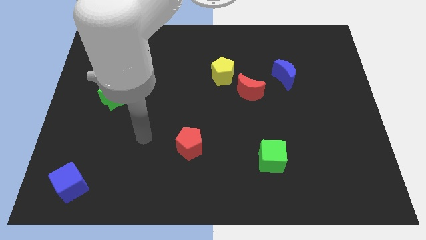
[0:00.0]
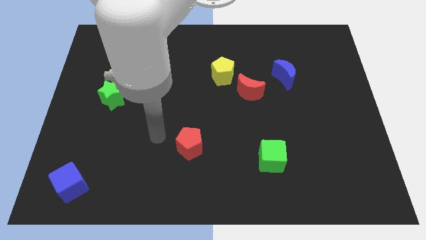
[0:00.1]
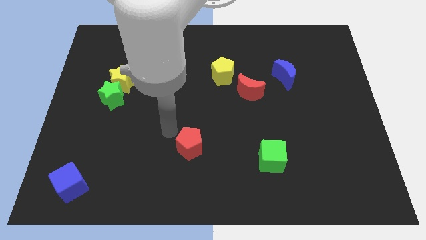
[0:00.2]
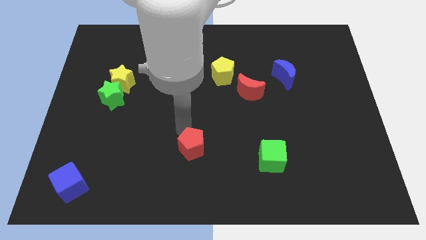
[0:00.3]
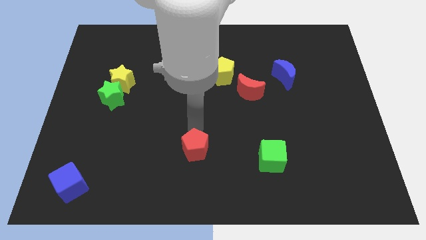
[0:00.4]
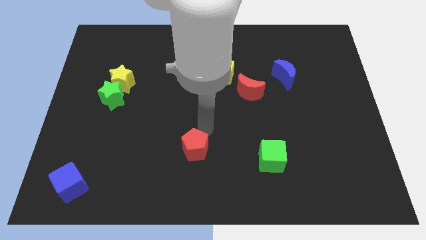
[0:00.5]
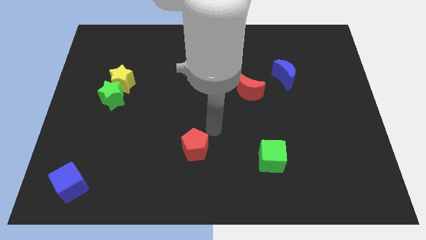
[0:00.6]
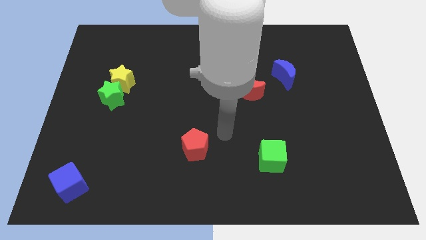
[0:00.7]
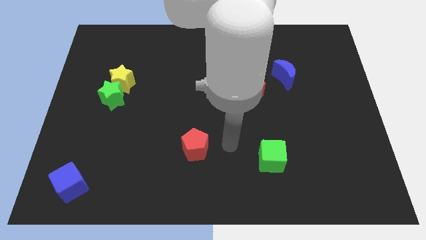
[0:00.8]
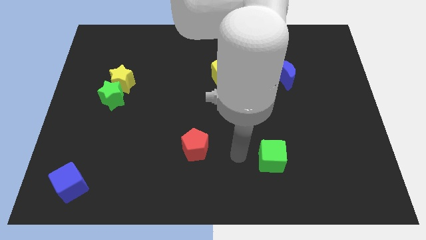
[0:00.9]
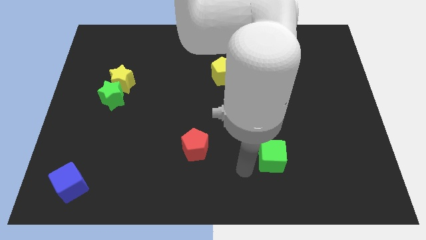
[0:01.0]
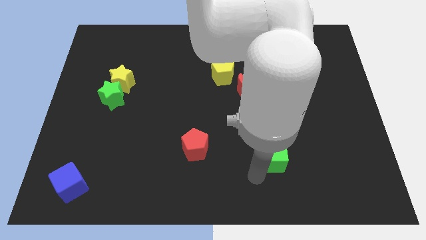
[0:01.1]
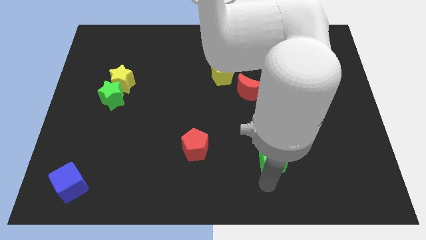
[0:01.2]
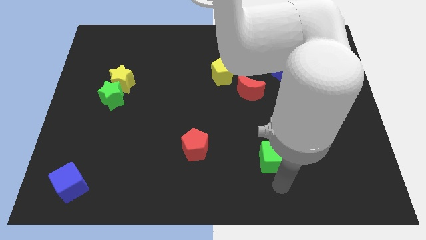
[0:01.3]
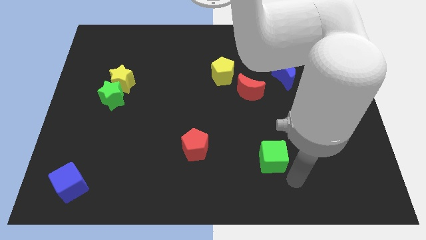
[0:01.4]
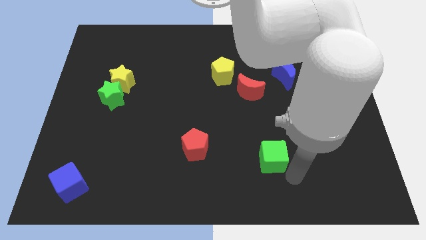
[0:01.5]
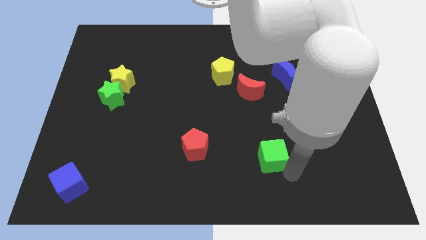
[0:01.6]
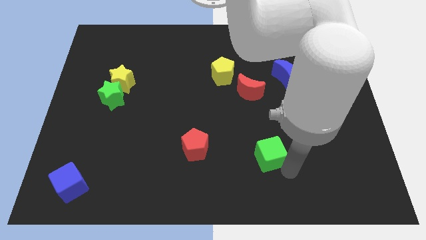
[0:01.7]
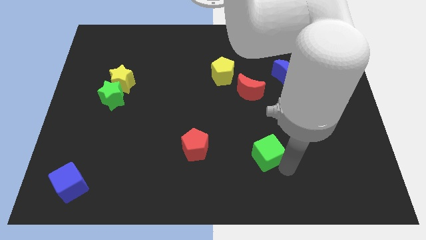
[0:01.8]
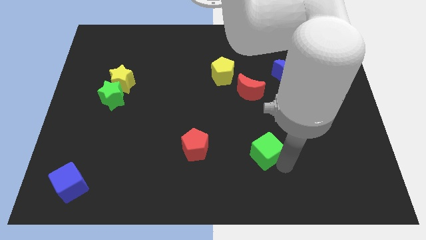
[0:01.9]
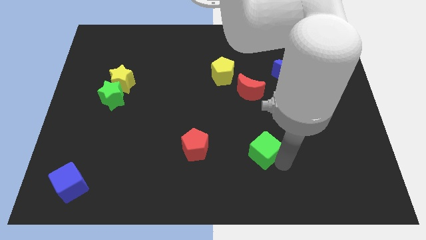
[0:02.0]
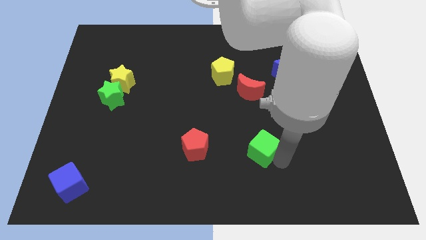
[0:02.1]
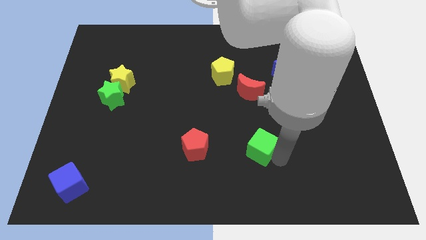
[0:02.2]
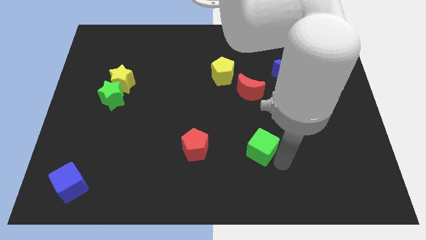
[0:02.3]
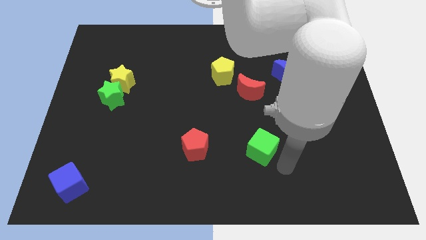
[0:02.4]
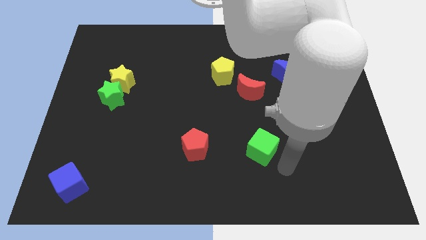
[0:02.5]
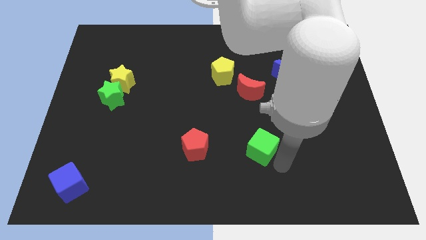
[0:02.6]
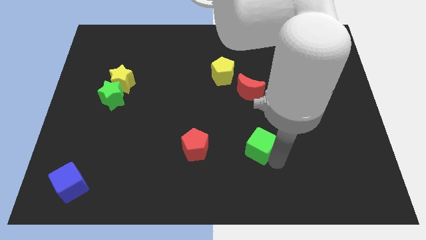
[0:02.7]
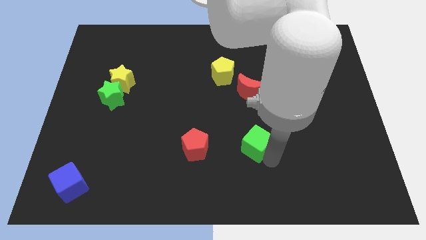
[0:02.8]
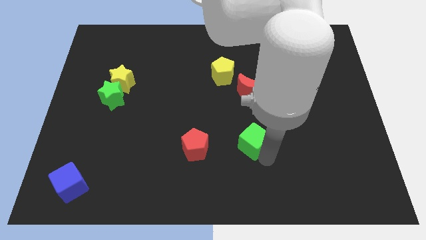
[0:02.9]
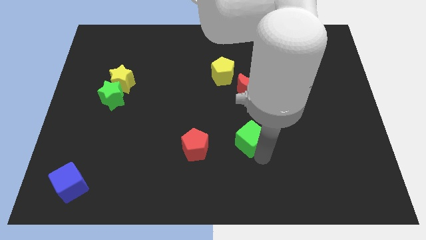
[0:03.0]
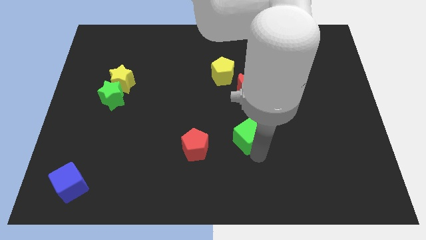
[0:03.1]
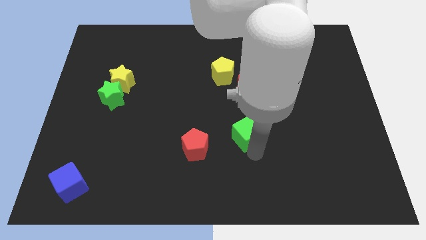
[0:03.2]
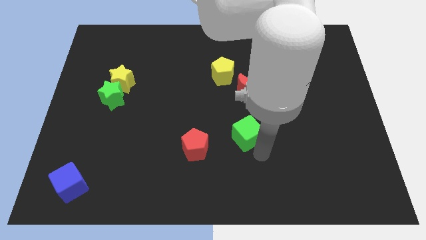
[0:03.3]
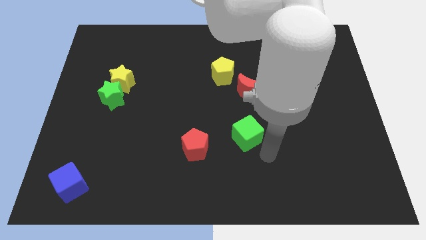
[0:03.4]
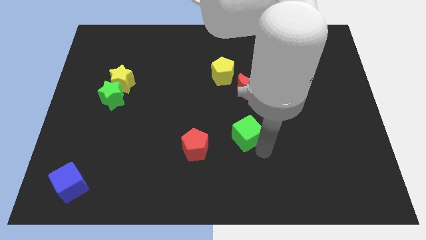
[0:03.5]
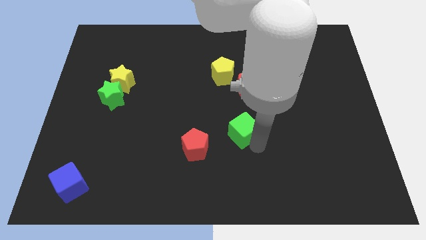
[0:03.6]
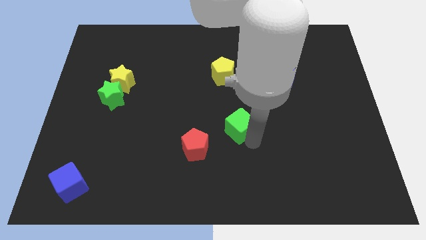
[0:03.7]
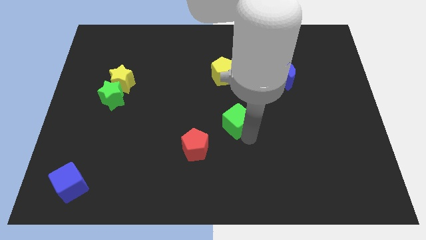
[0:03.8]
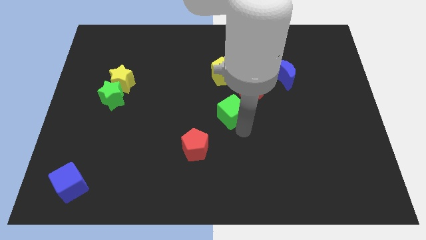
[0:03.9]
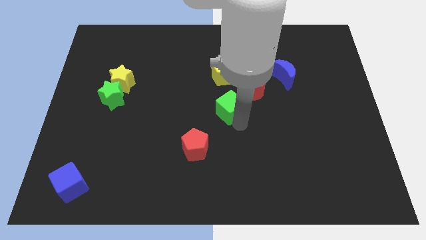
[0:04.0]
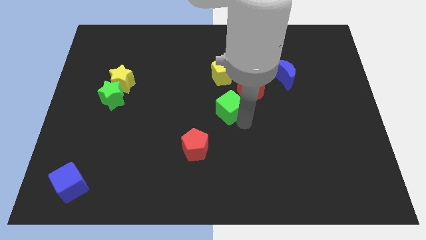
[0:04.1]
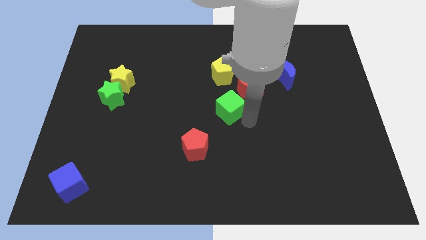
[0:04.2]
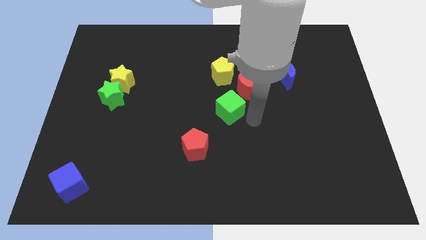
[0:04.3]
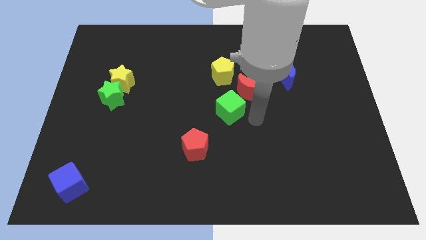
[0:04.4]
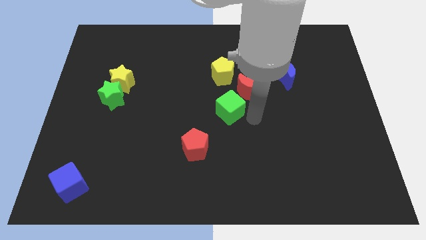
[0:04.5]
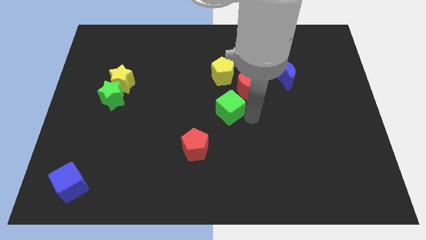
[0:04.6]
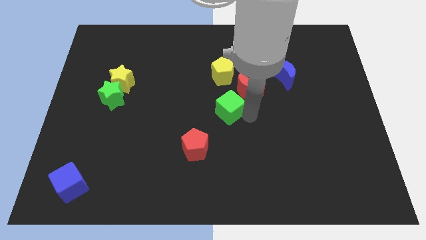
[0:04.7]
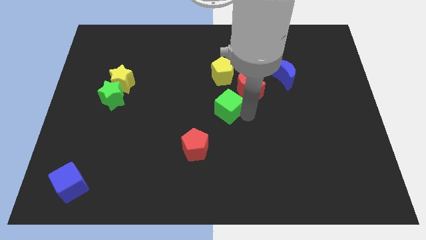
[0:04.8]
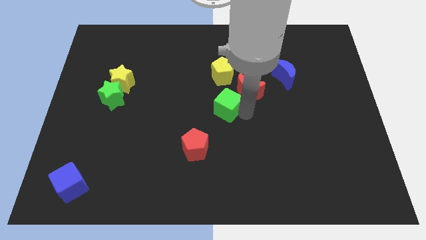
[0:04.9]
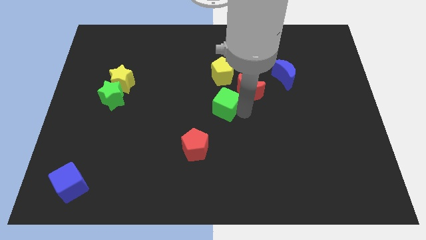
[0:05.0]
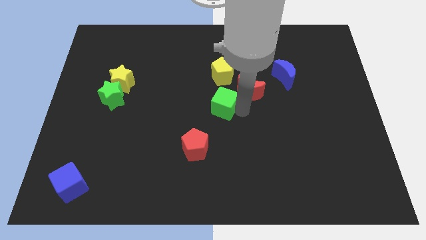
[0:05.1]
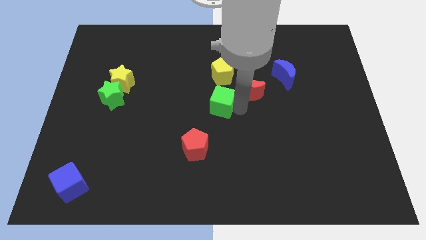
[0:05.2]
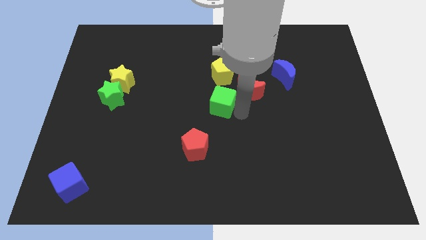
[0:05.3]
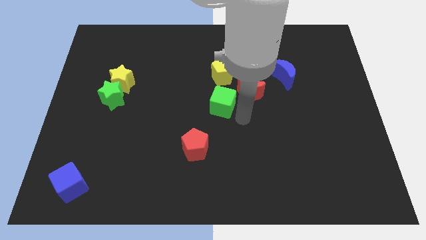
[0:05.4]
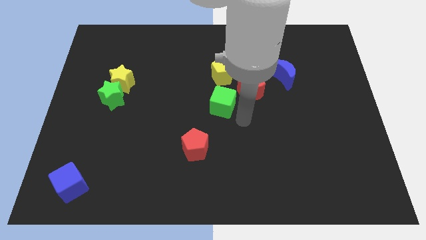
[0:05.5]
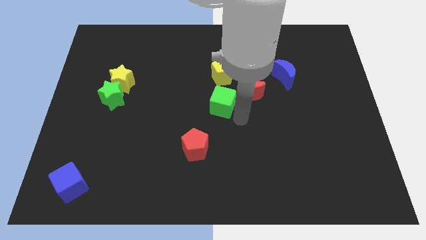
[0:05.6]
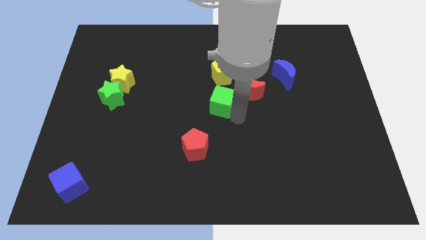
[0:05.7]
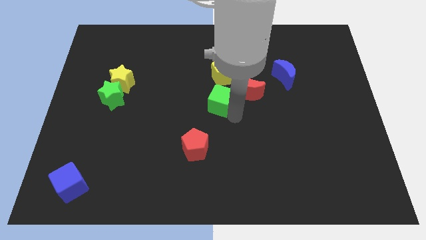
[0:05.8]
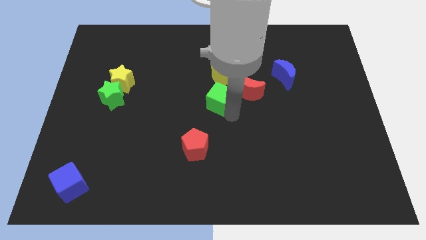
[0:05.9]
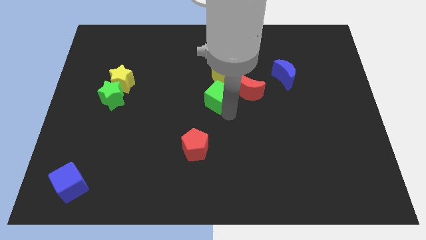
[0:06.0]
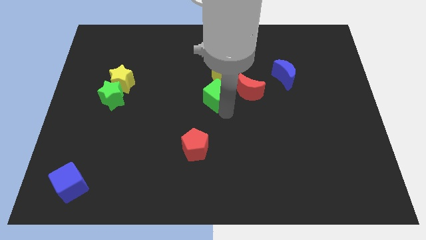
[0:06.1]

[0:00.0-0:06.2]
push the green cube to the bottom left of the yellow pentagon

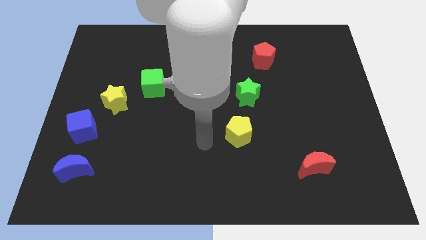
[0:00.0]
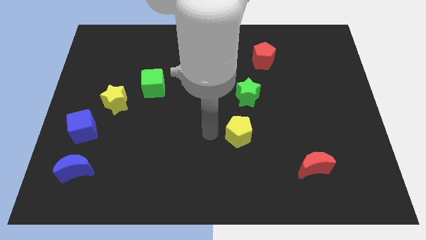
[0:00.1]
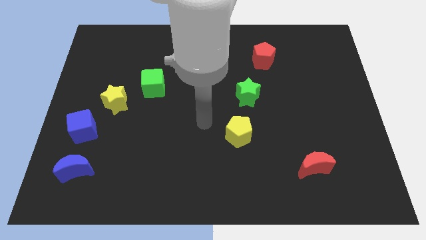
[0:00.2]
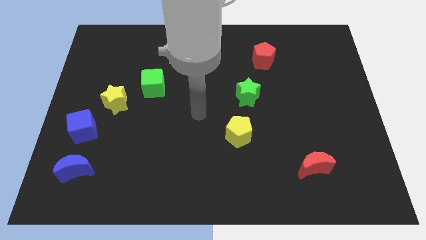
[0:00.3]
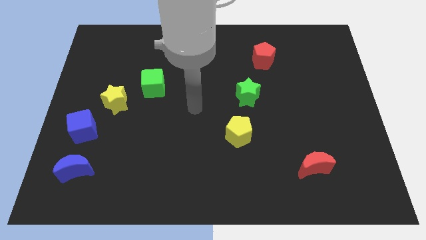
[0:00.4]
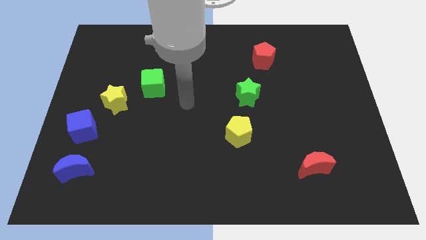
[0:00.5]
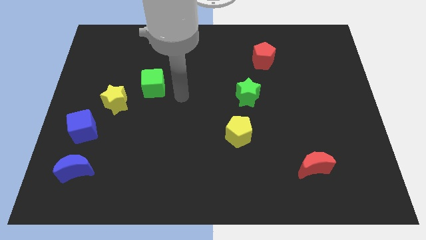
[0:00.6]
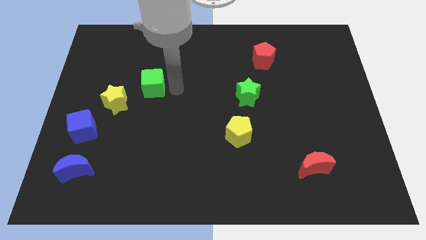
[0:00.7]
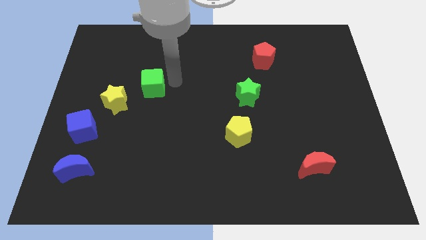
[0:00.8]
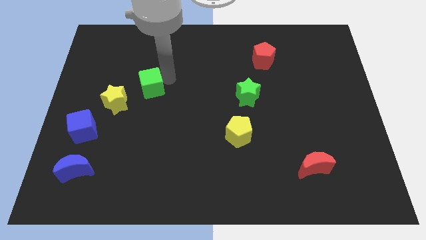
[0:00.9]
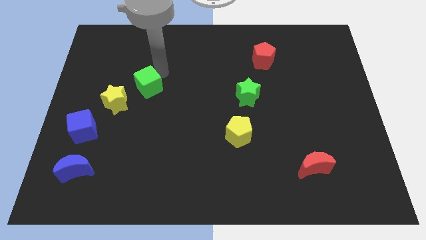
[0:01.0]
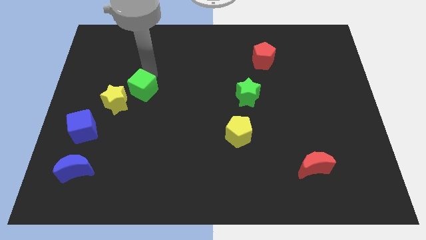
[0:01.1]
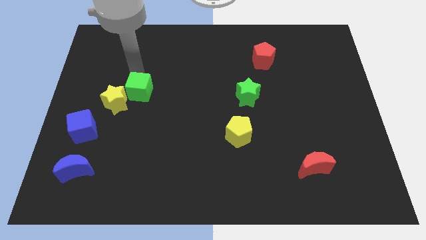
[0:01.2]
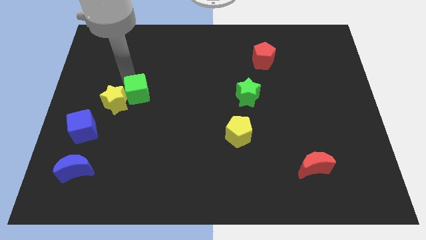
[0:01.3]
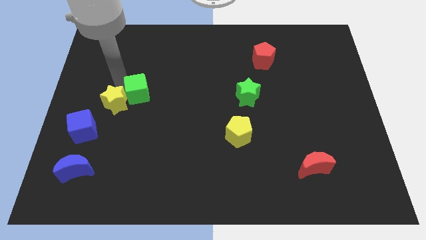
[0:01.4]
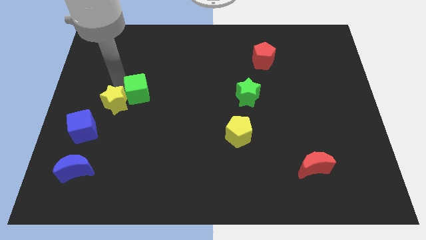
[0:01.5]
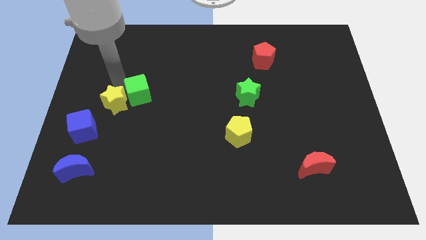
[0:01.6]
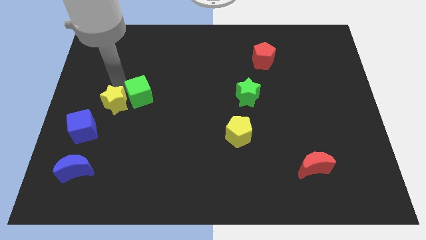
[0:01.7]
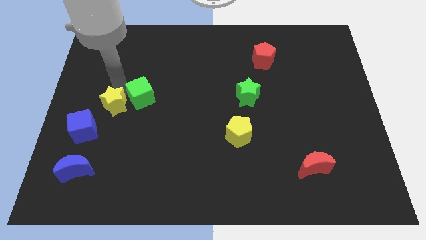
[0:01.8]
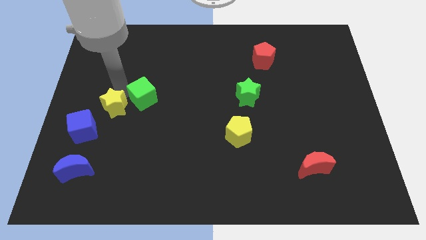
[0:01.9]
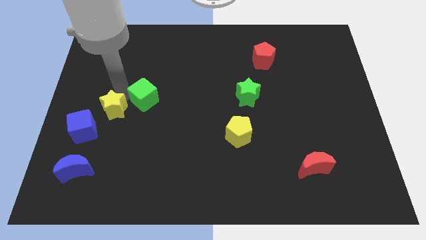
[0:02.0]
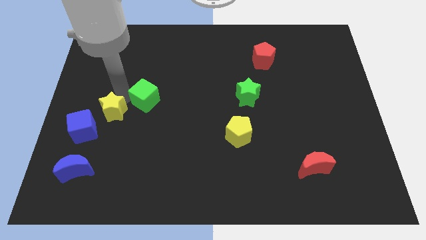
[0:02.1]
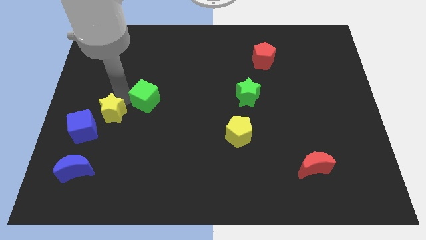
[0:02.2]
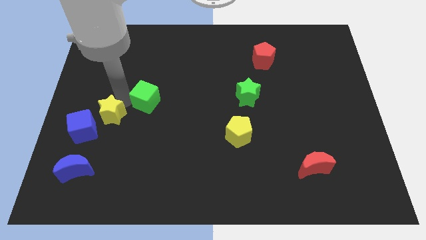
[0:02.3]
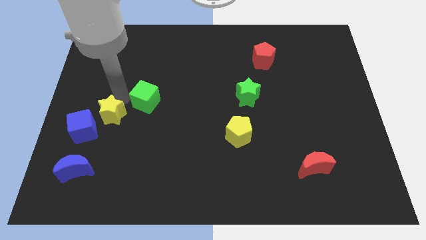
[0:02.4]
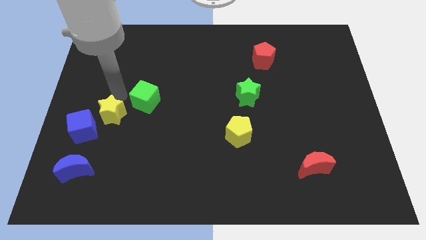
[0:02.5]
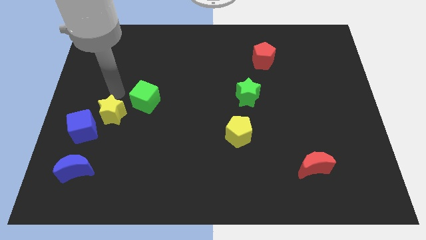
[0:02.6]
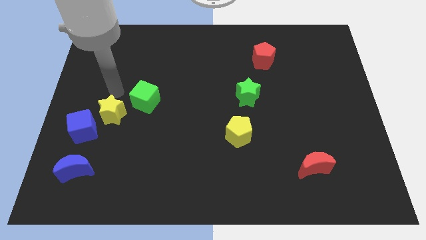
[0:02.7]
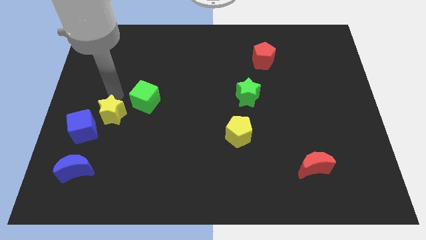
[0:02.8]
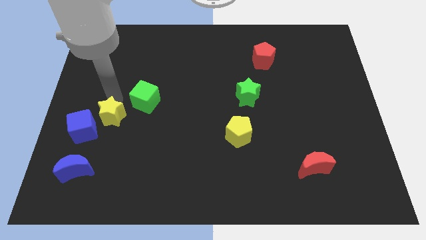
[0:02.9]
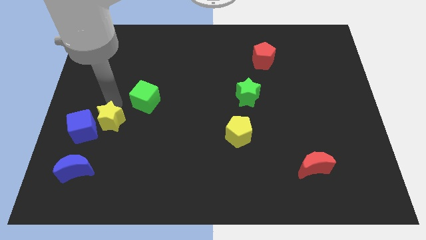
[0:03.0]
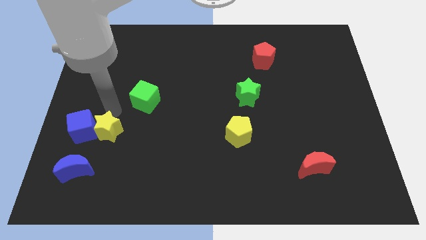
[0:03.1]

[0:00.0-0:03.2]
move the yellow star diagonally up and to the right of the blue moon
